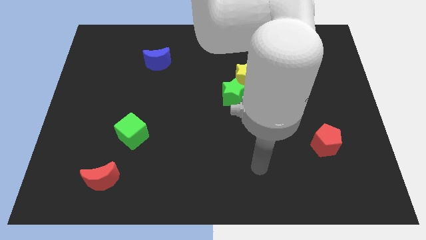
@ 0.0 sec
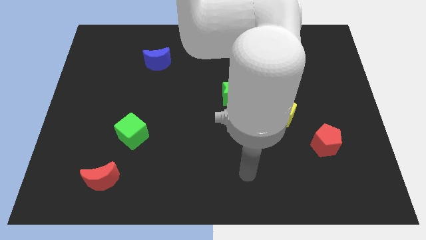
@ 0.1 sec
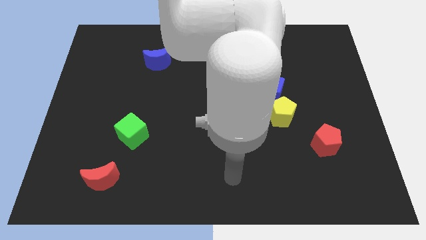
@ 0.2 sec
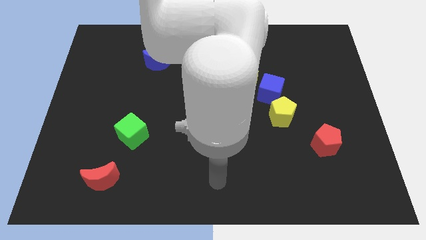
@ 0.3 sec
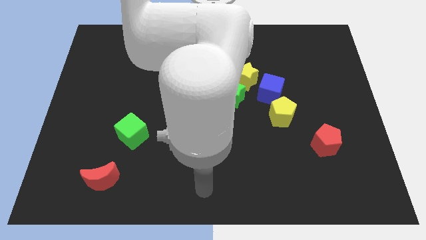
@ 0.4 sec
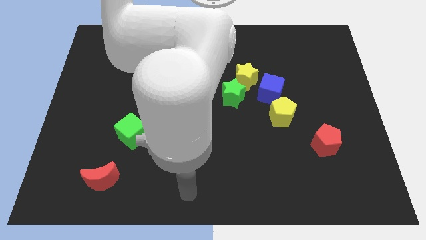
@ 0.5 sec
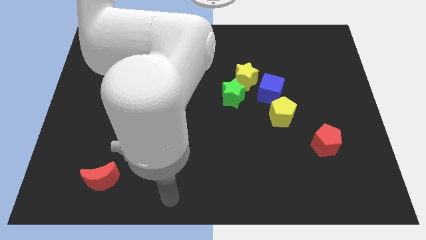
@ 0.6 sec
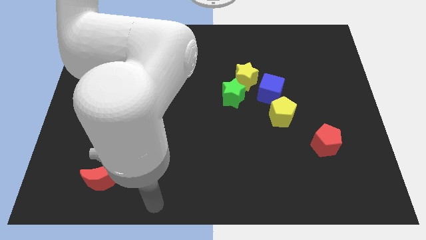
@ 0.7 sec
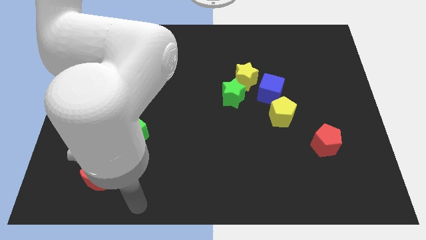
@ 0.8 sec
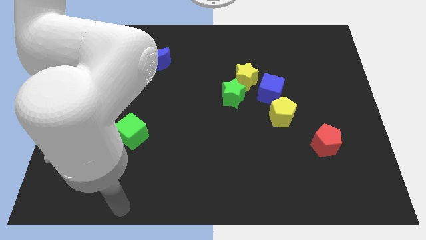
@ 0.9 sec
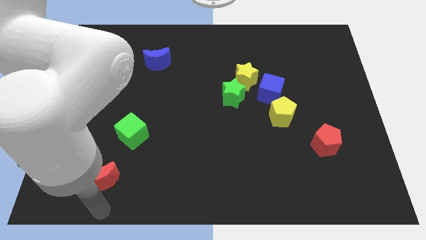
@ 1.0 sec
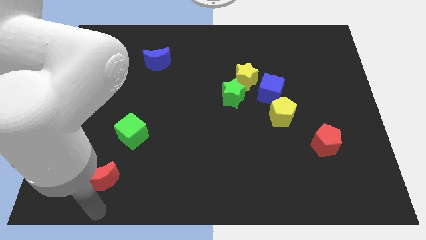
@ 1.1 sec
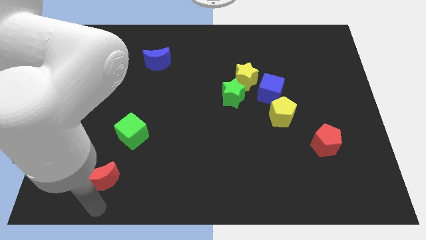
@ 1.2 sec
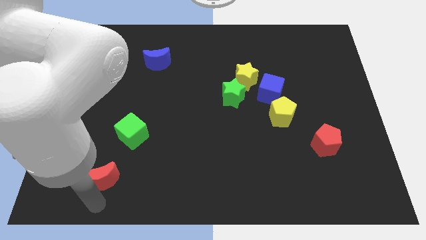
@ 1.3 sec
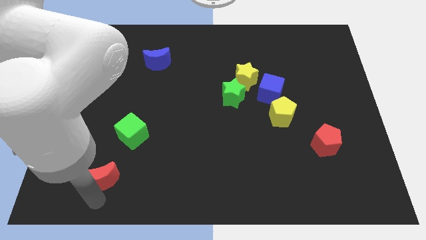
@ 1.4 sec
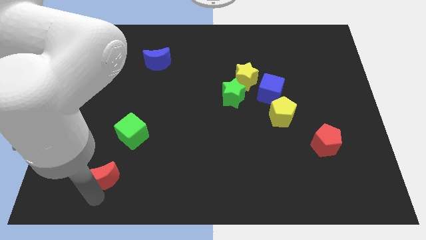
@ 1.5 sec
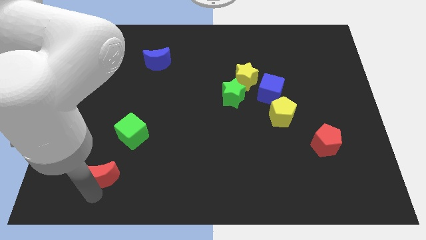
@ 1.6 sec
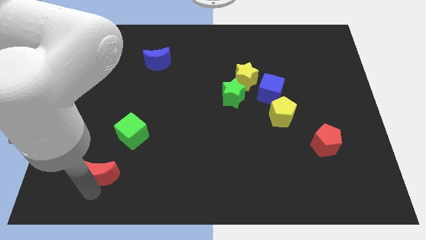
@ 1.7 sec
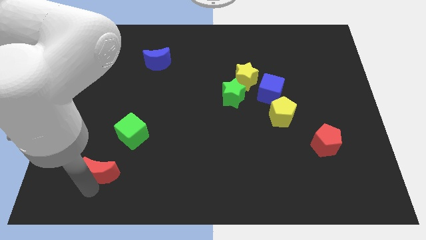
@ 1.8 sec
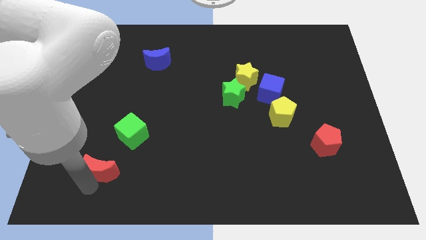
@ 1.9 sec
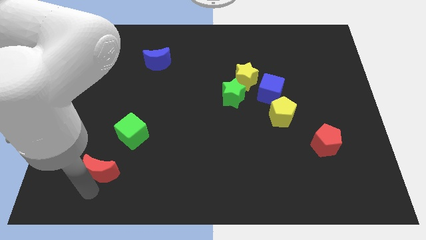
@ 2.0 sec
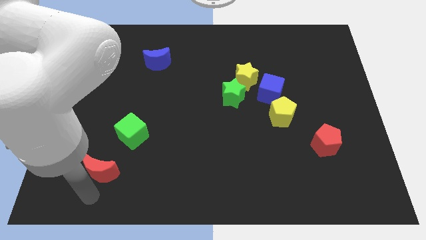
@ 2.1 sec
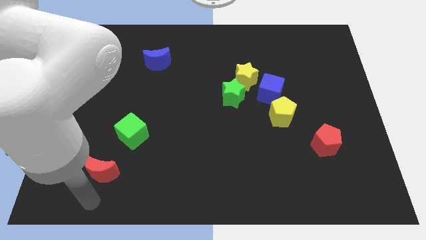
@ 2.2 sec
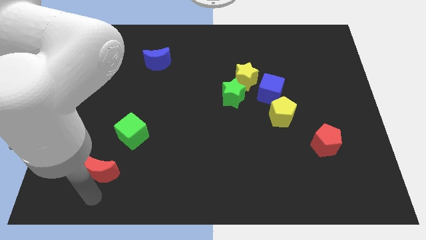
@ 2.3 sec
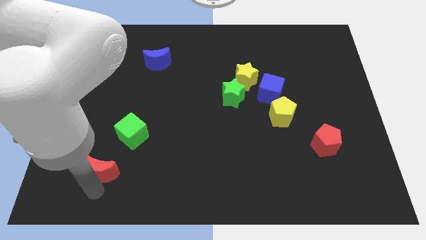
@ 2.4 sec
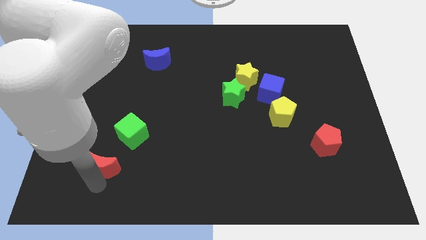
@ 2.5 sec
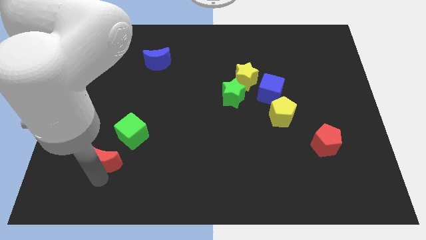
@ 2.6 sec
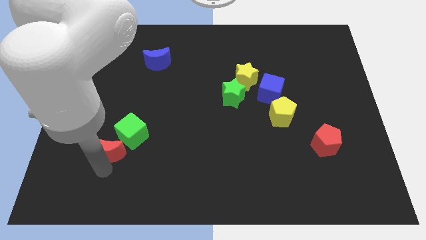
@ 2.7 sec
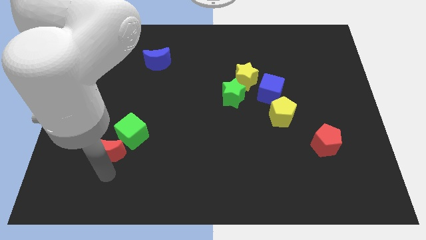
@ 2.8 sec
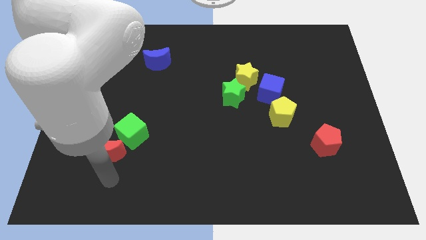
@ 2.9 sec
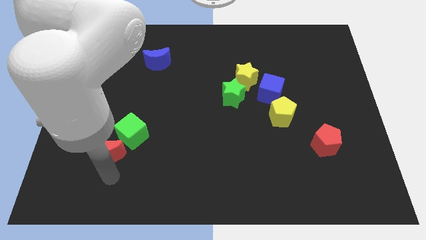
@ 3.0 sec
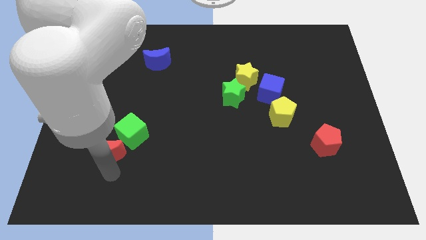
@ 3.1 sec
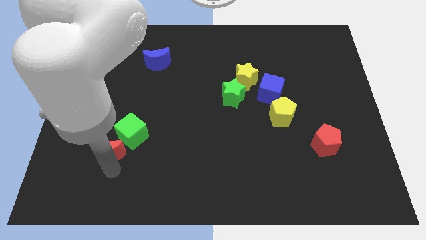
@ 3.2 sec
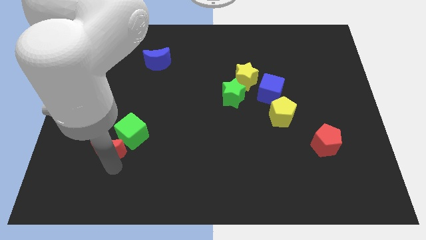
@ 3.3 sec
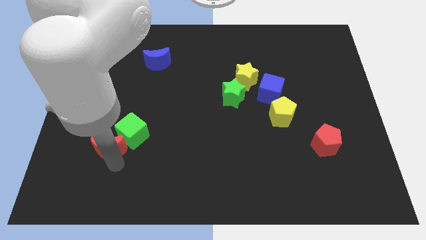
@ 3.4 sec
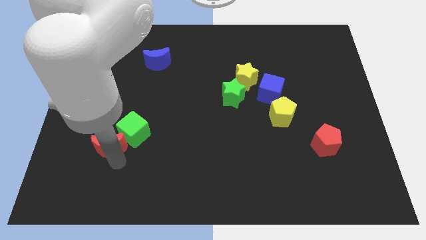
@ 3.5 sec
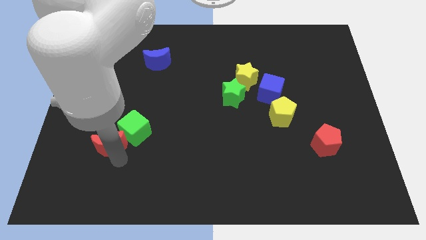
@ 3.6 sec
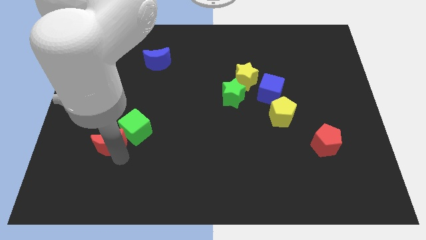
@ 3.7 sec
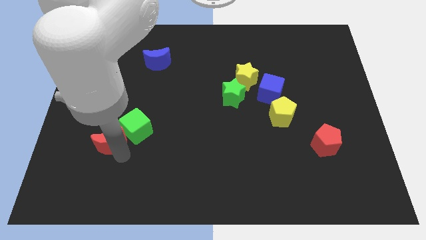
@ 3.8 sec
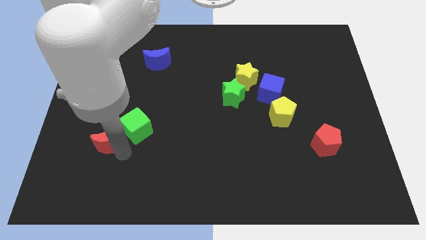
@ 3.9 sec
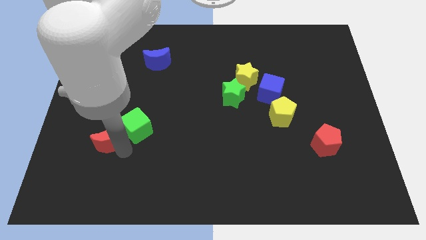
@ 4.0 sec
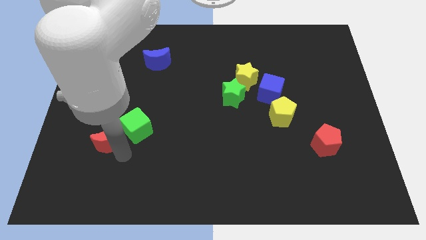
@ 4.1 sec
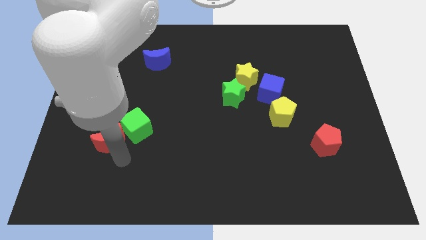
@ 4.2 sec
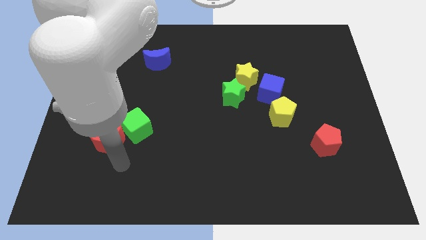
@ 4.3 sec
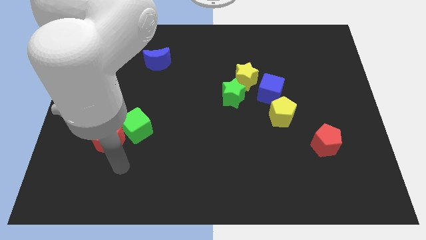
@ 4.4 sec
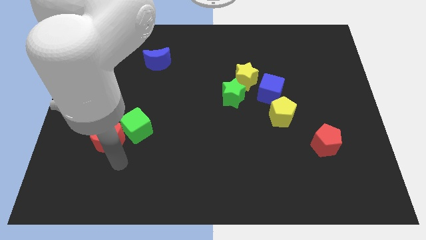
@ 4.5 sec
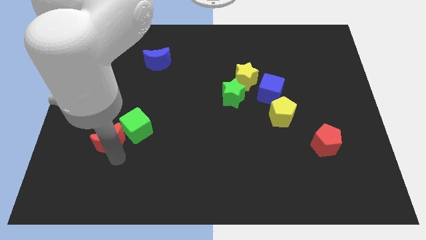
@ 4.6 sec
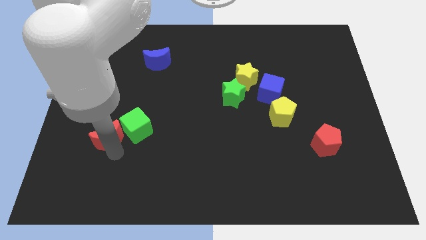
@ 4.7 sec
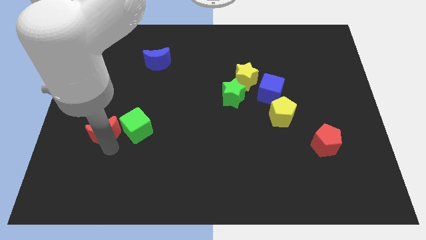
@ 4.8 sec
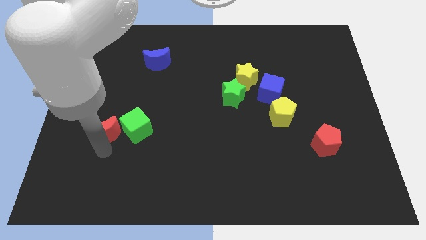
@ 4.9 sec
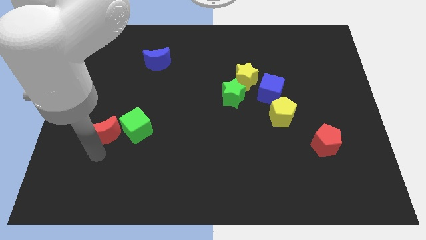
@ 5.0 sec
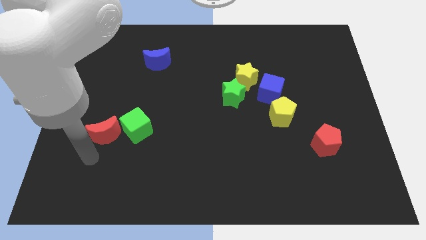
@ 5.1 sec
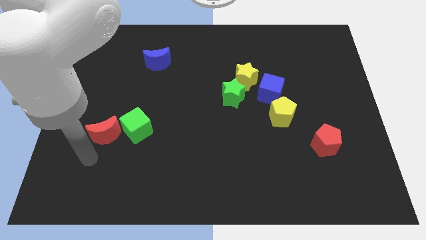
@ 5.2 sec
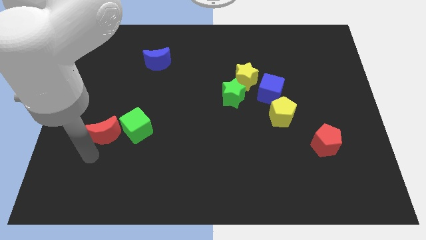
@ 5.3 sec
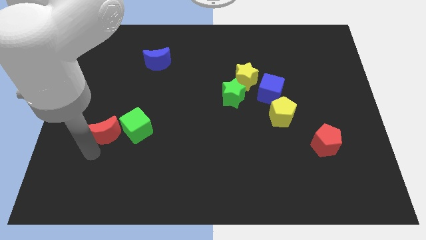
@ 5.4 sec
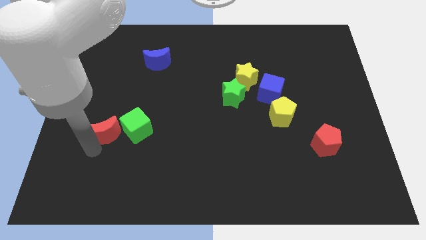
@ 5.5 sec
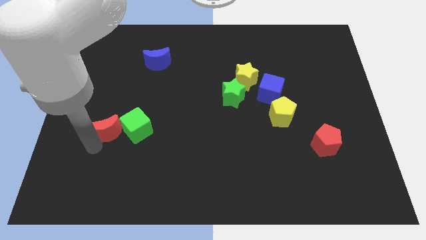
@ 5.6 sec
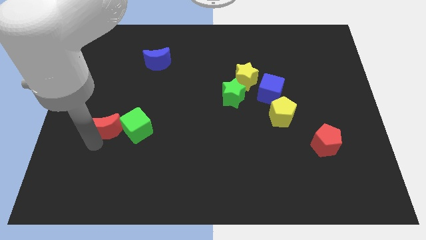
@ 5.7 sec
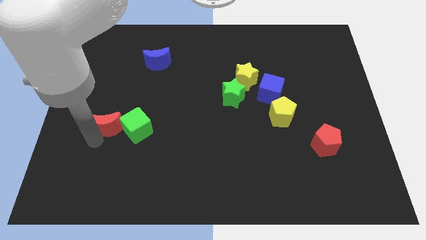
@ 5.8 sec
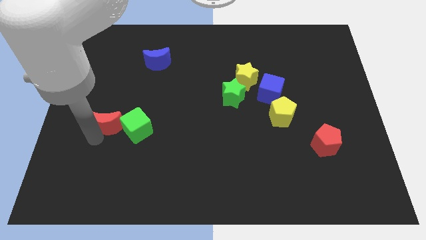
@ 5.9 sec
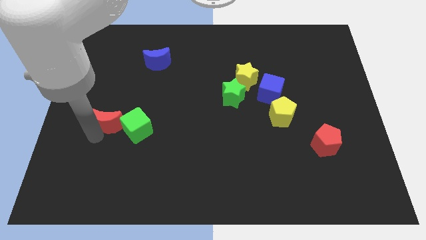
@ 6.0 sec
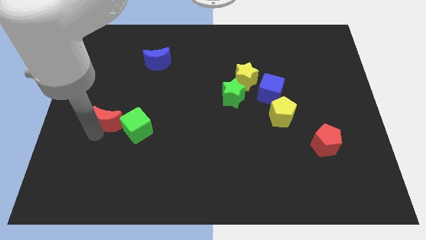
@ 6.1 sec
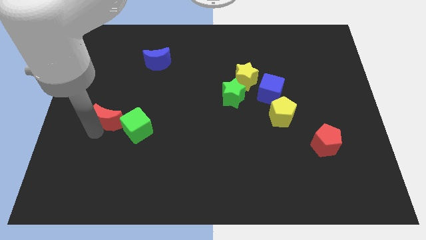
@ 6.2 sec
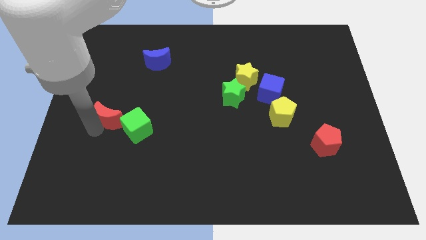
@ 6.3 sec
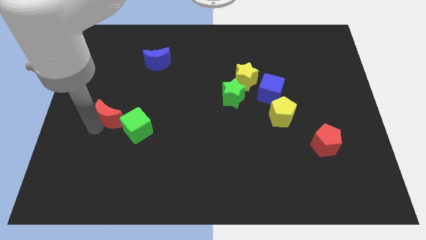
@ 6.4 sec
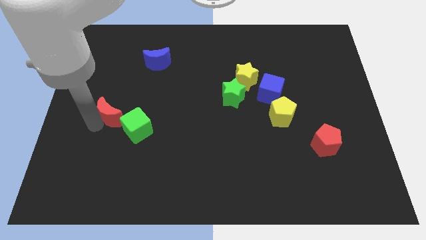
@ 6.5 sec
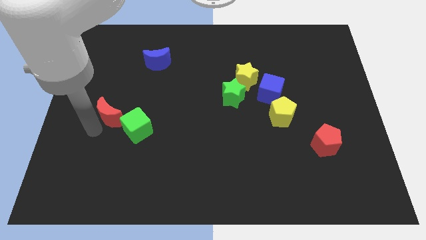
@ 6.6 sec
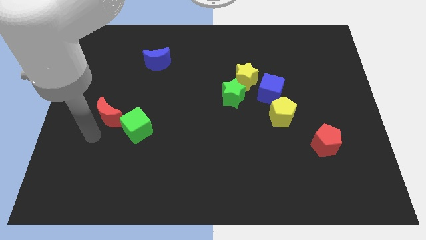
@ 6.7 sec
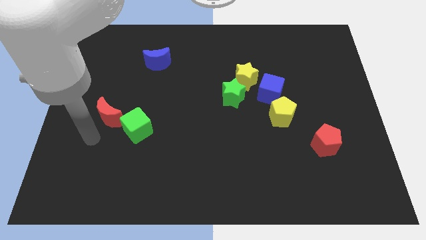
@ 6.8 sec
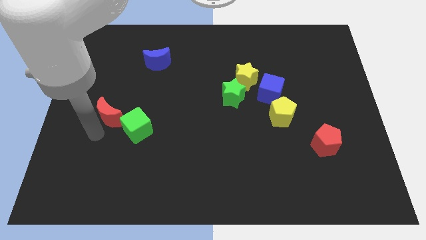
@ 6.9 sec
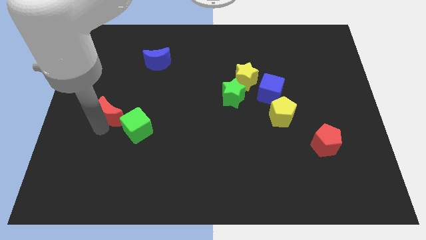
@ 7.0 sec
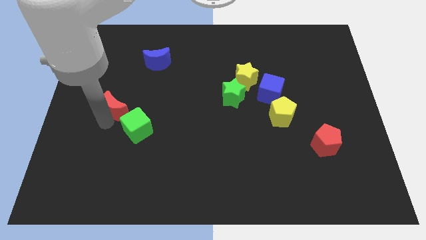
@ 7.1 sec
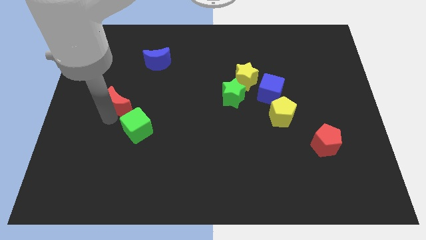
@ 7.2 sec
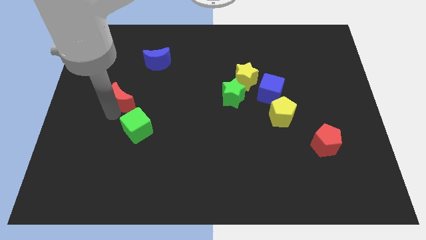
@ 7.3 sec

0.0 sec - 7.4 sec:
move the red moon upwards

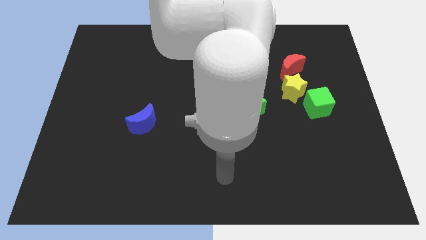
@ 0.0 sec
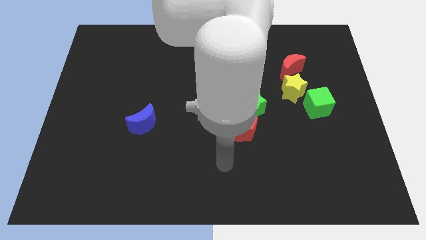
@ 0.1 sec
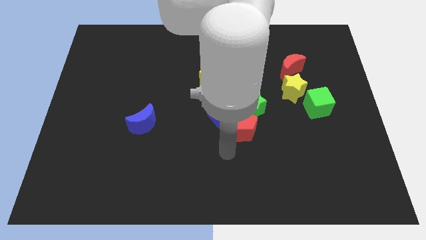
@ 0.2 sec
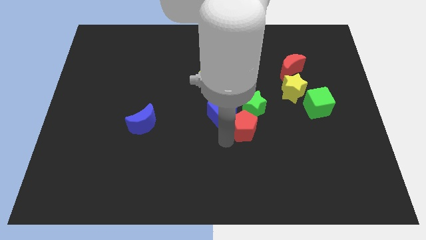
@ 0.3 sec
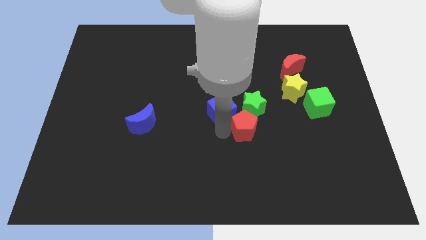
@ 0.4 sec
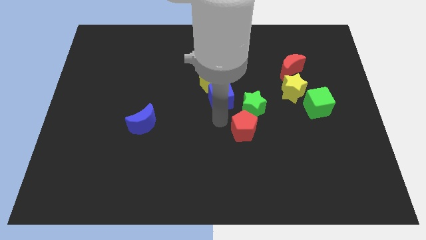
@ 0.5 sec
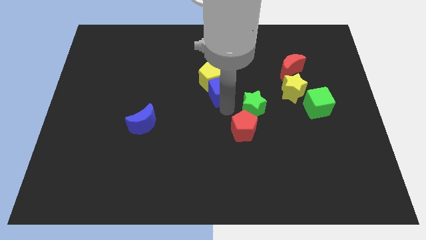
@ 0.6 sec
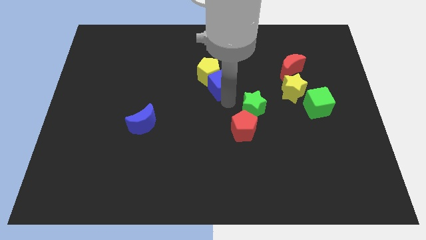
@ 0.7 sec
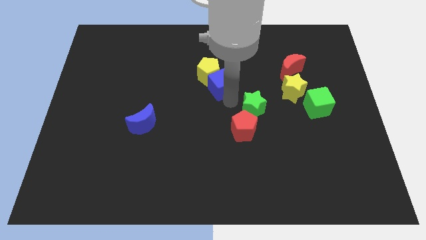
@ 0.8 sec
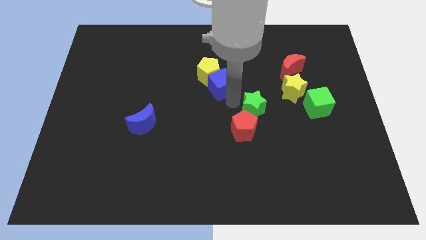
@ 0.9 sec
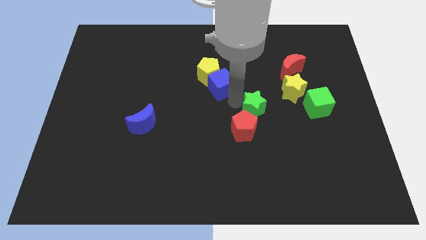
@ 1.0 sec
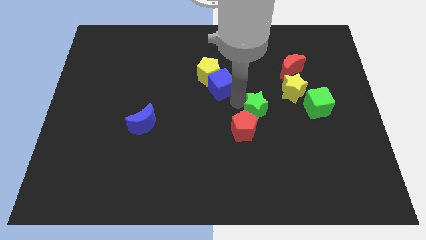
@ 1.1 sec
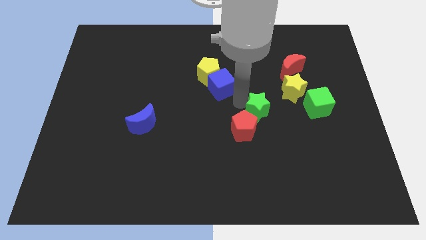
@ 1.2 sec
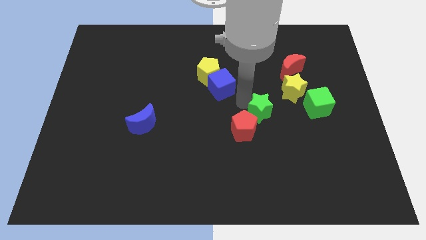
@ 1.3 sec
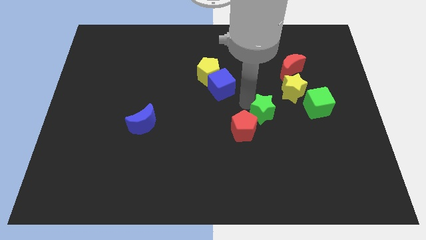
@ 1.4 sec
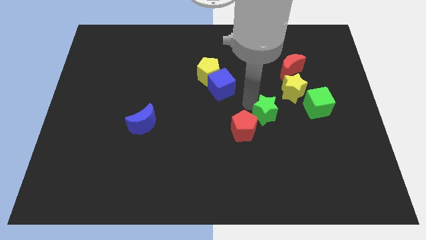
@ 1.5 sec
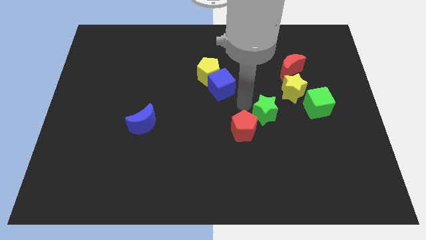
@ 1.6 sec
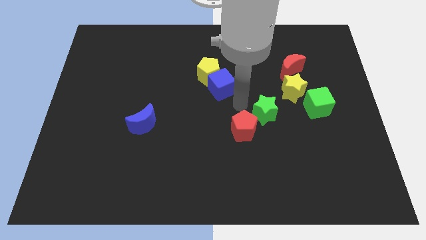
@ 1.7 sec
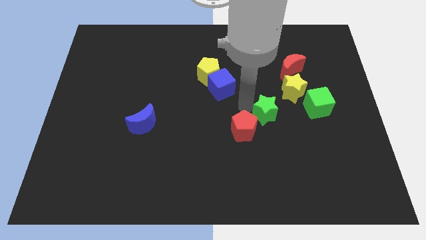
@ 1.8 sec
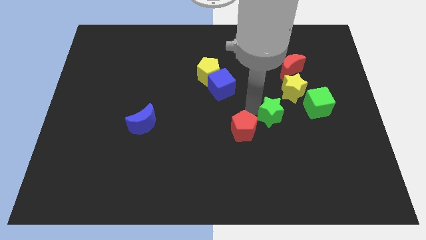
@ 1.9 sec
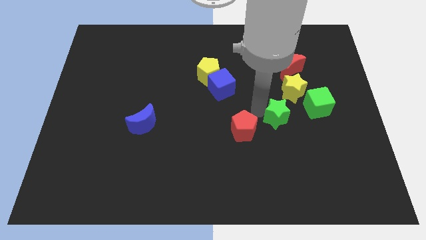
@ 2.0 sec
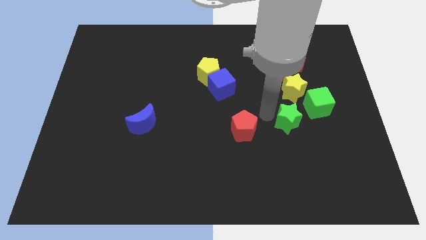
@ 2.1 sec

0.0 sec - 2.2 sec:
slide the green star to the right a little
